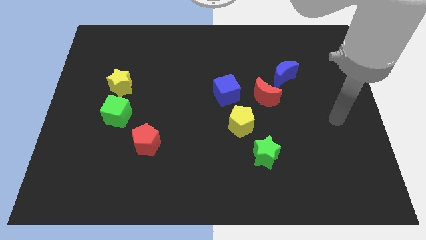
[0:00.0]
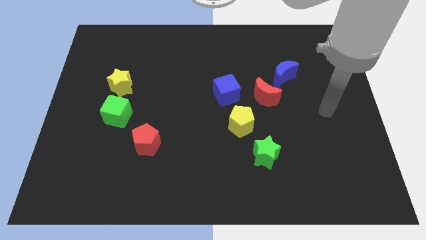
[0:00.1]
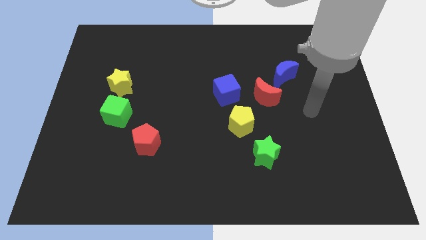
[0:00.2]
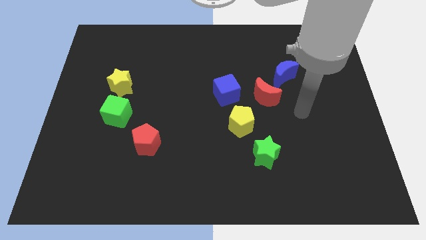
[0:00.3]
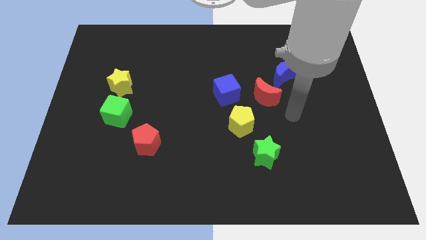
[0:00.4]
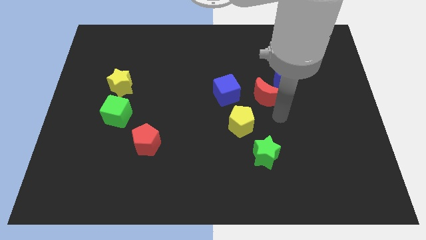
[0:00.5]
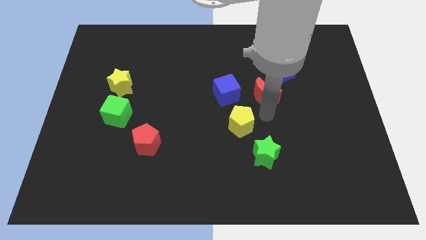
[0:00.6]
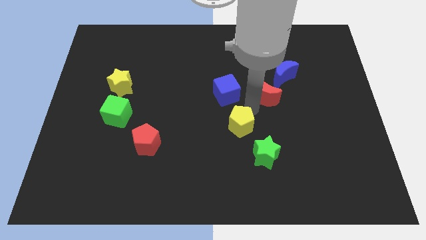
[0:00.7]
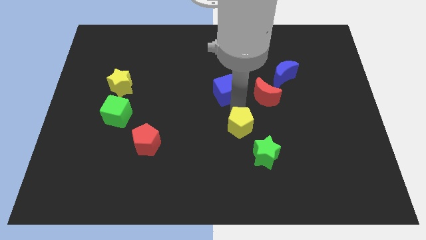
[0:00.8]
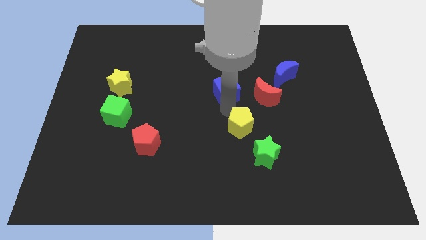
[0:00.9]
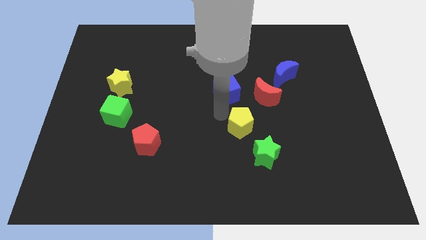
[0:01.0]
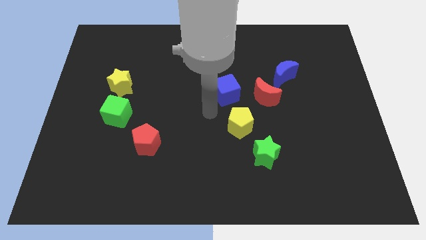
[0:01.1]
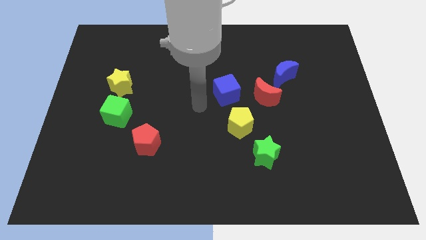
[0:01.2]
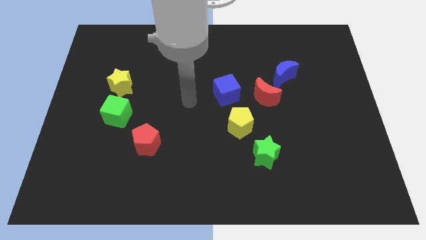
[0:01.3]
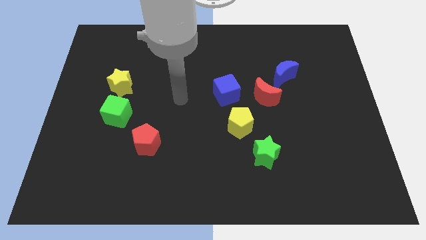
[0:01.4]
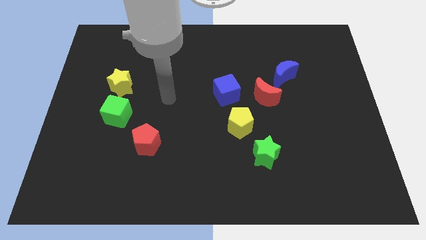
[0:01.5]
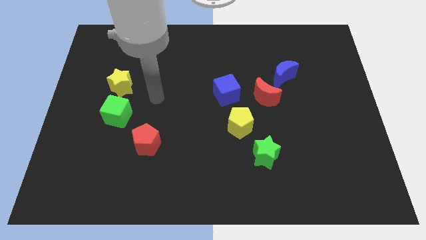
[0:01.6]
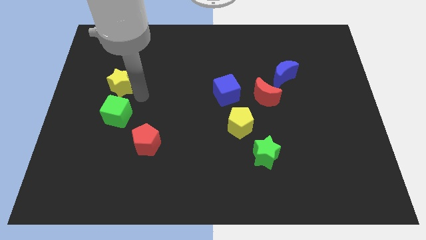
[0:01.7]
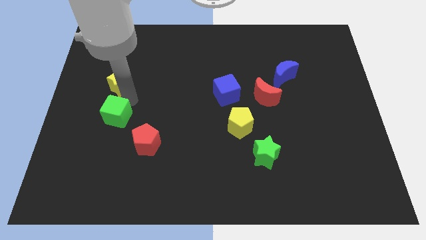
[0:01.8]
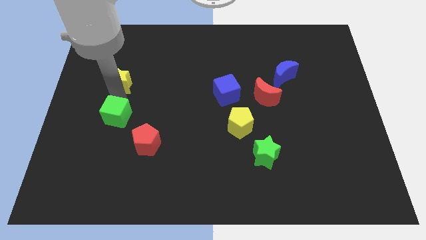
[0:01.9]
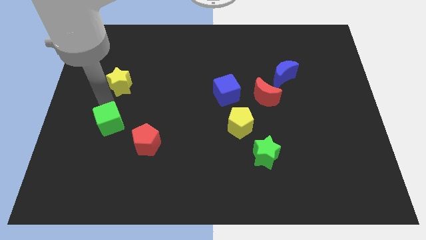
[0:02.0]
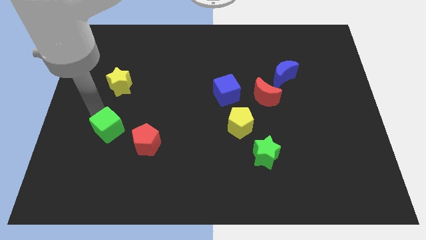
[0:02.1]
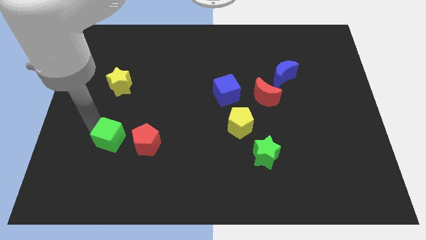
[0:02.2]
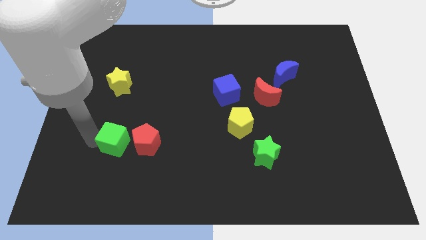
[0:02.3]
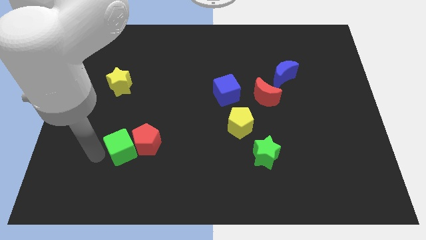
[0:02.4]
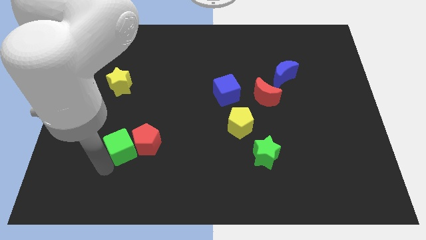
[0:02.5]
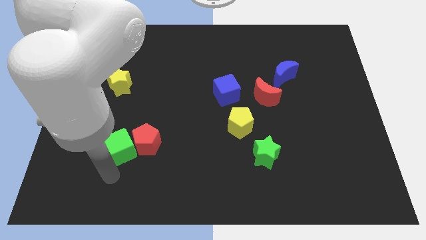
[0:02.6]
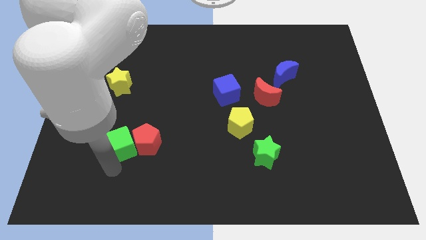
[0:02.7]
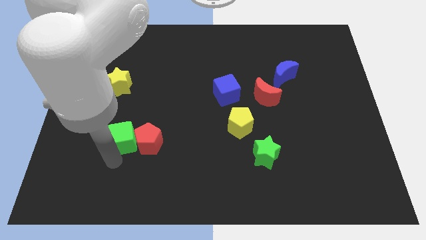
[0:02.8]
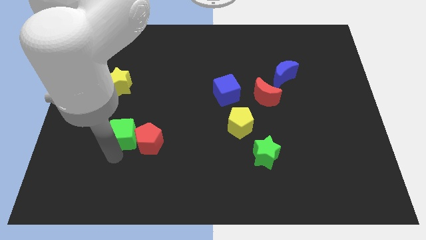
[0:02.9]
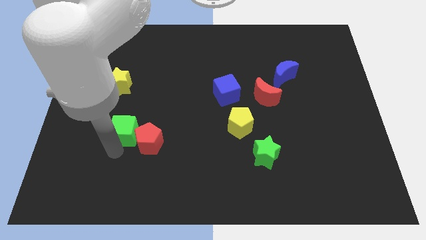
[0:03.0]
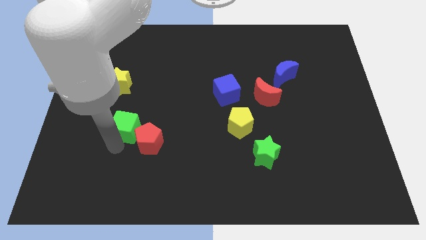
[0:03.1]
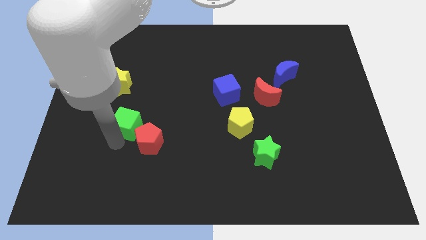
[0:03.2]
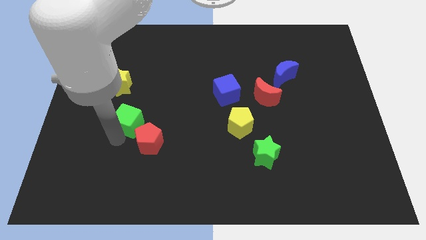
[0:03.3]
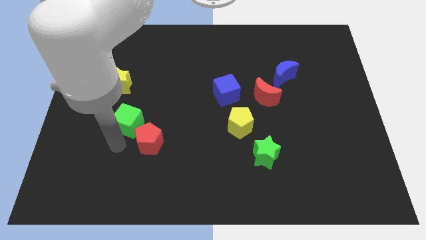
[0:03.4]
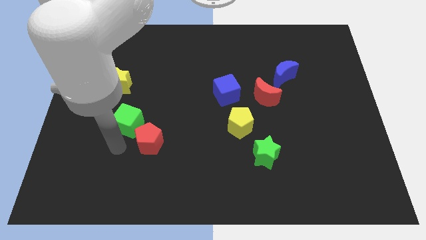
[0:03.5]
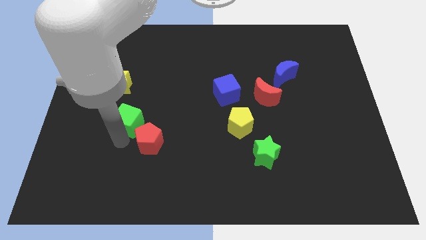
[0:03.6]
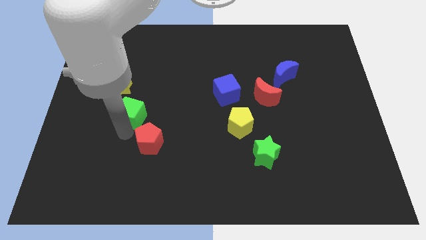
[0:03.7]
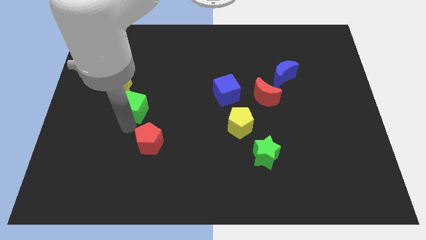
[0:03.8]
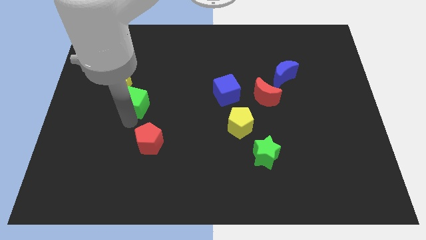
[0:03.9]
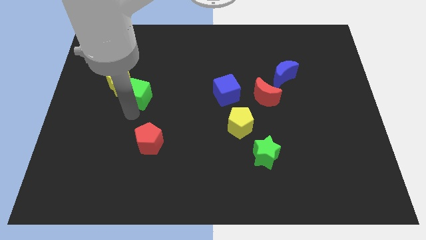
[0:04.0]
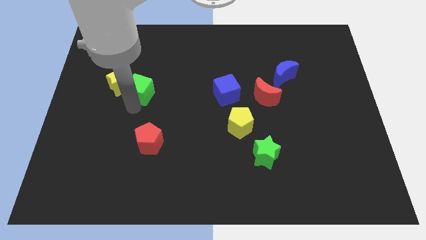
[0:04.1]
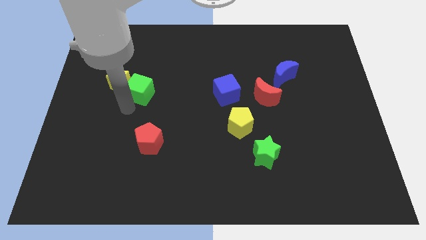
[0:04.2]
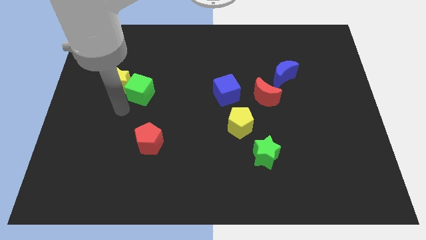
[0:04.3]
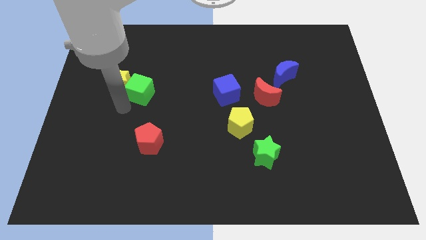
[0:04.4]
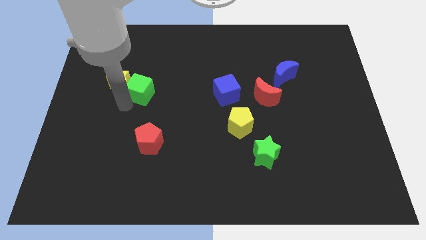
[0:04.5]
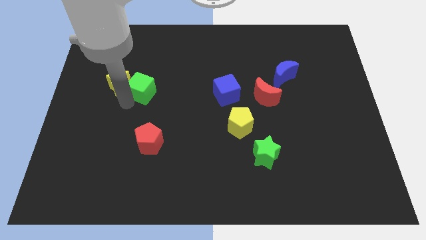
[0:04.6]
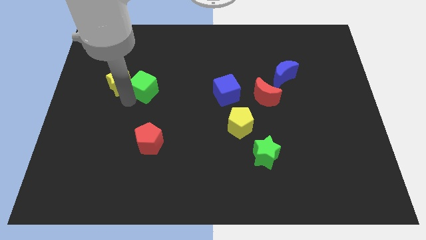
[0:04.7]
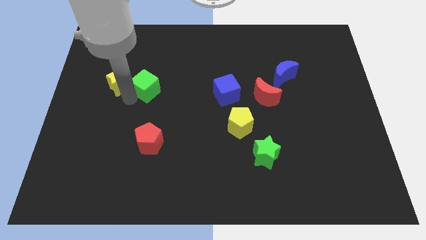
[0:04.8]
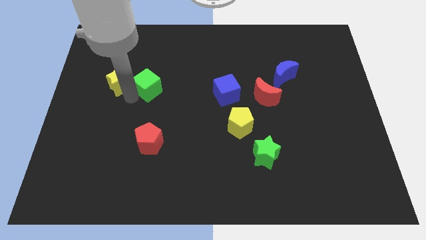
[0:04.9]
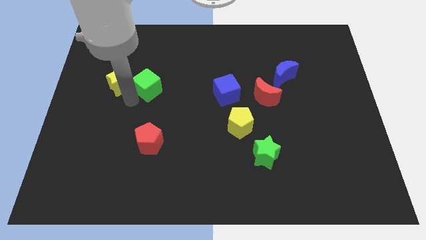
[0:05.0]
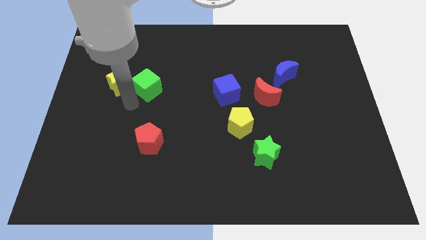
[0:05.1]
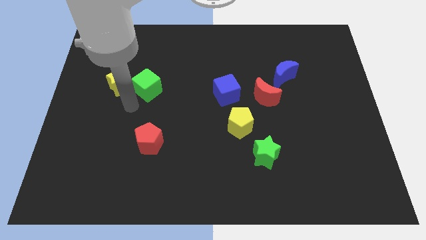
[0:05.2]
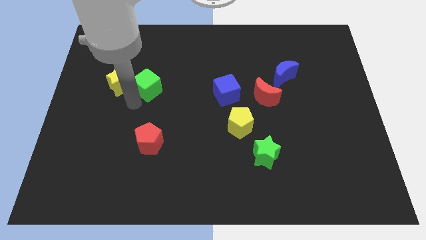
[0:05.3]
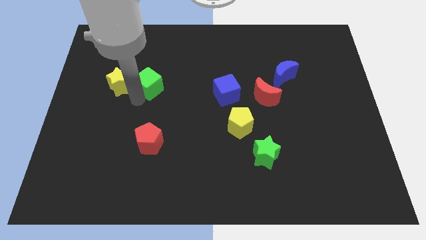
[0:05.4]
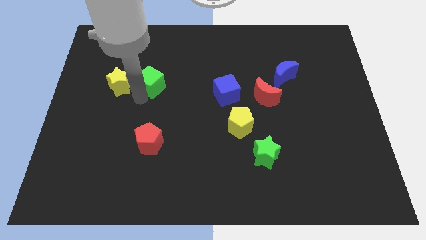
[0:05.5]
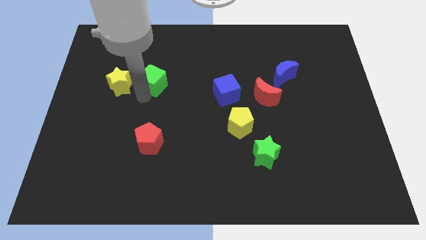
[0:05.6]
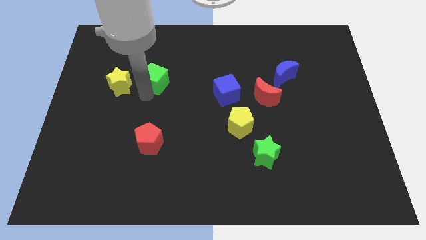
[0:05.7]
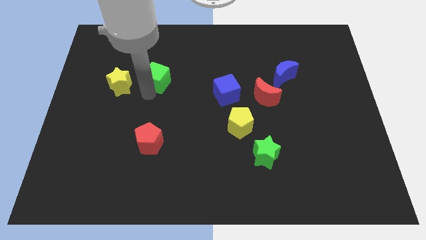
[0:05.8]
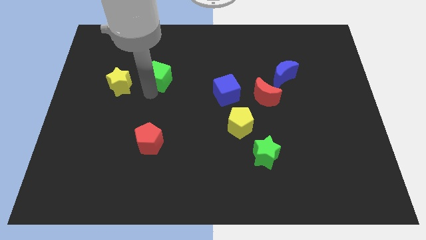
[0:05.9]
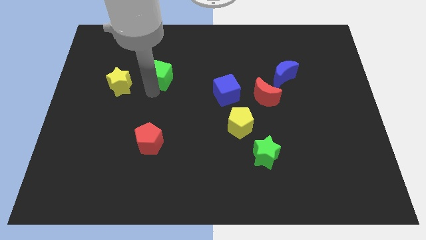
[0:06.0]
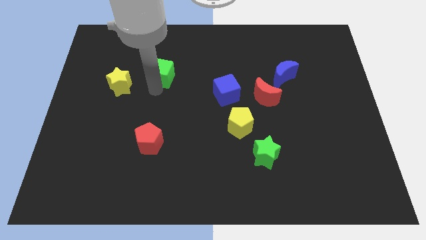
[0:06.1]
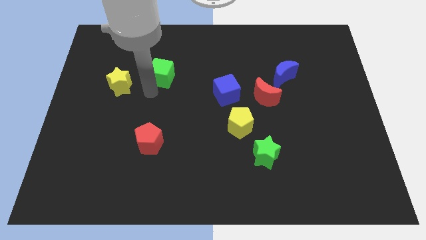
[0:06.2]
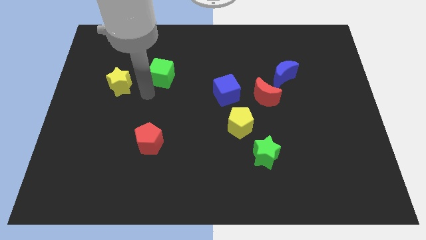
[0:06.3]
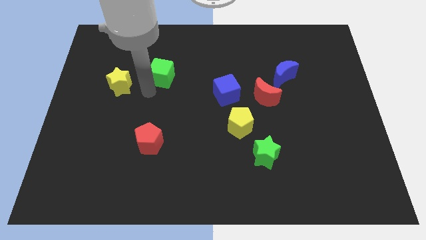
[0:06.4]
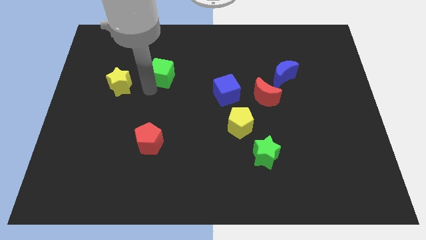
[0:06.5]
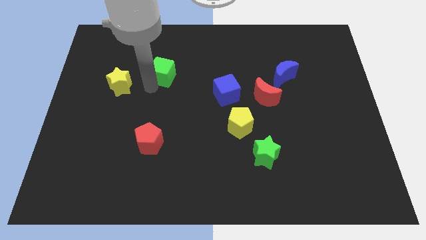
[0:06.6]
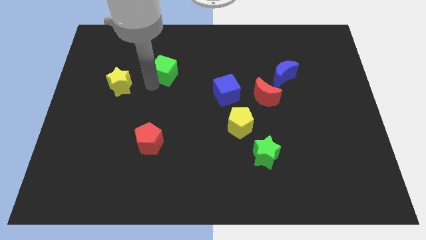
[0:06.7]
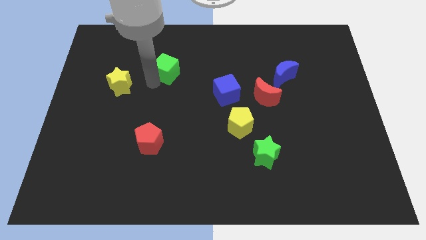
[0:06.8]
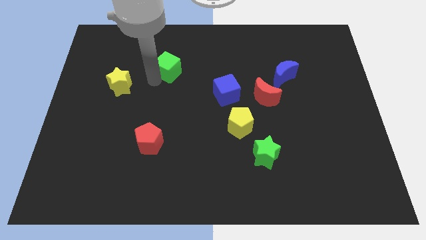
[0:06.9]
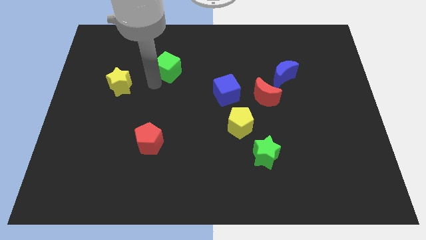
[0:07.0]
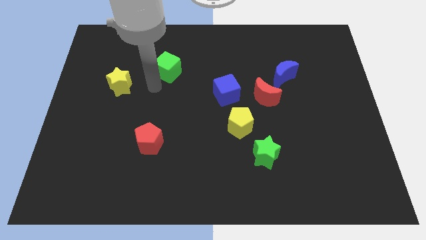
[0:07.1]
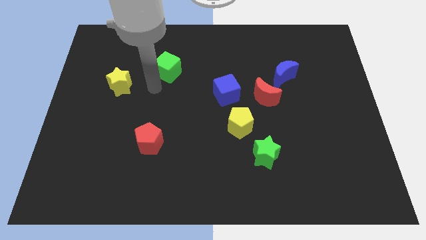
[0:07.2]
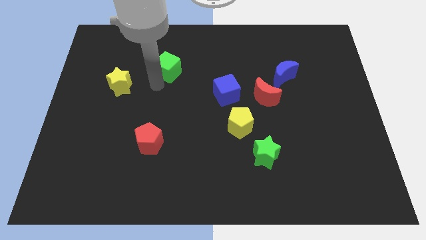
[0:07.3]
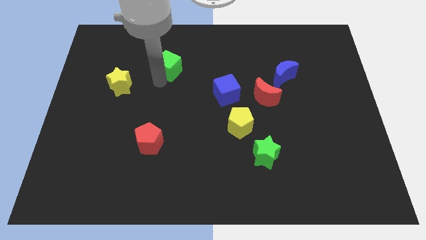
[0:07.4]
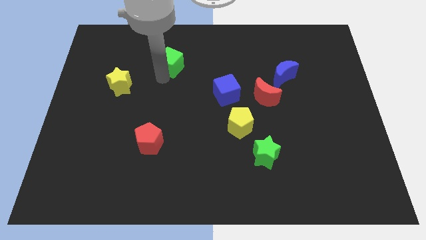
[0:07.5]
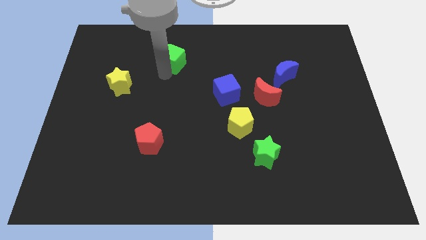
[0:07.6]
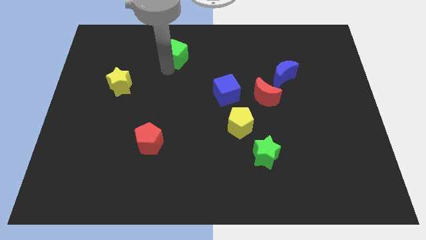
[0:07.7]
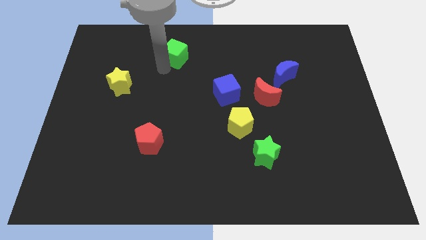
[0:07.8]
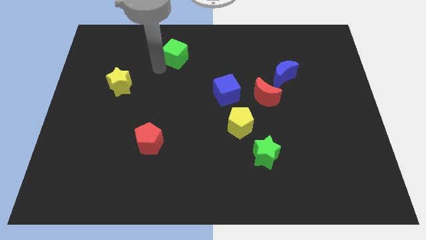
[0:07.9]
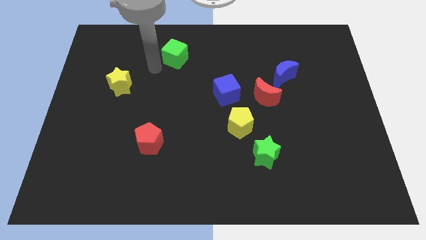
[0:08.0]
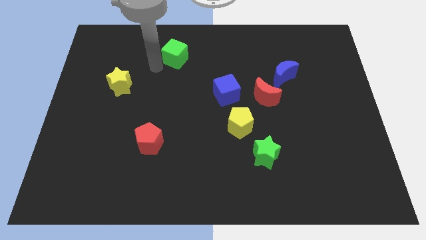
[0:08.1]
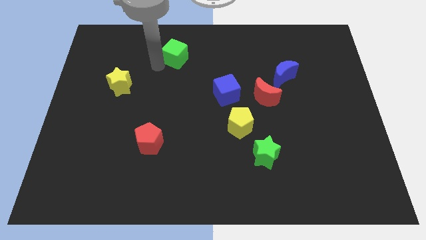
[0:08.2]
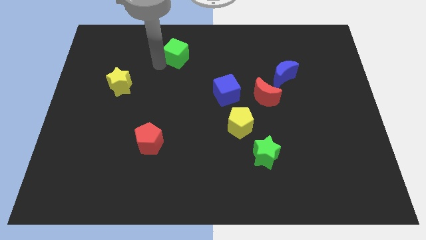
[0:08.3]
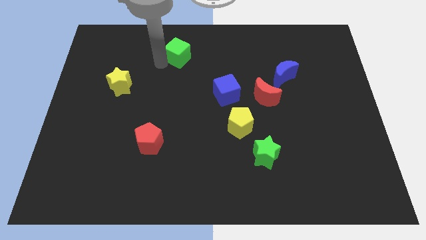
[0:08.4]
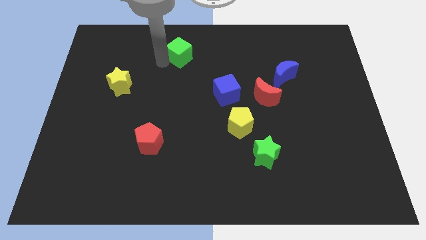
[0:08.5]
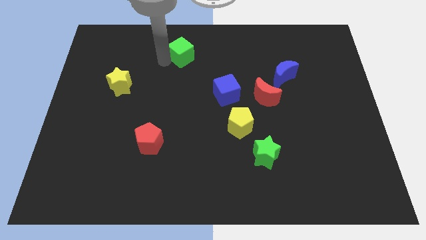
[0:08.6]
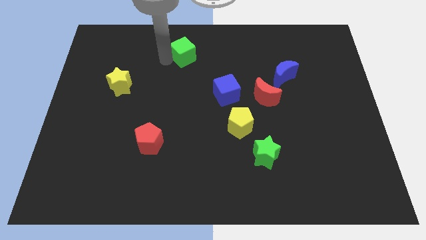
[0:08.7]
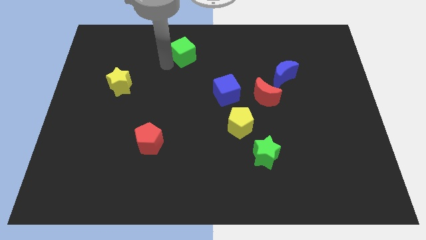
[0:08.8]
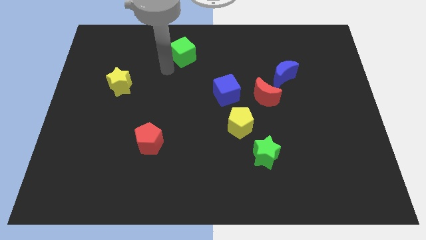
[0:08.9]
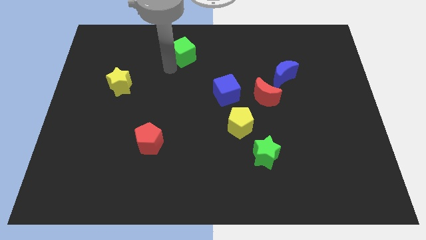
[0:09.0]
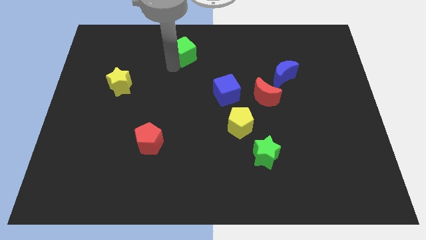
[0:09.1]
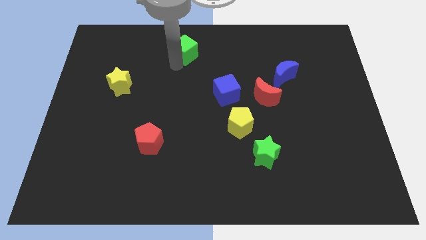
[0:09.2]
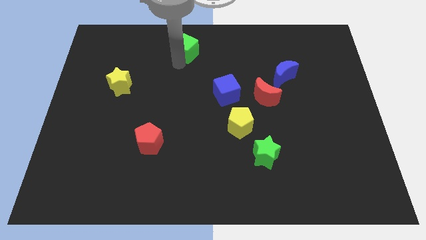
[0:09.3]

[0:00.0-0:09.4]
move the green cube to the top side
